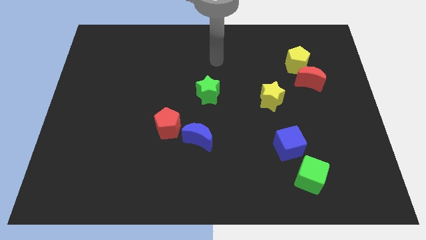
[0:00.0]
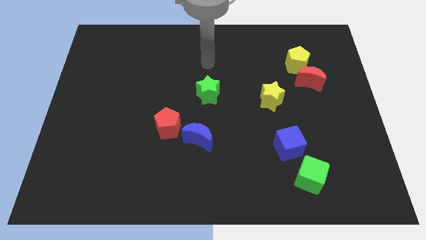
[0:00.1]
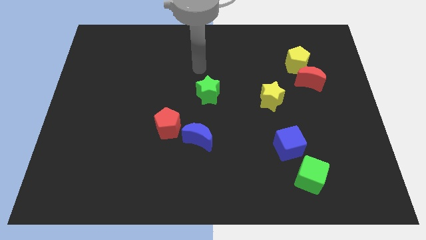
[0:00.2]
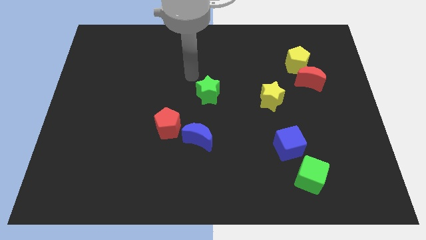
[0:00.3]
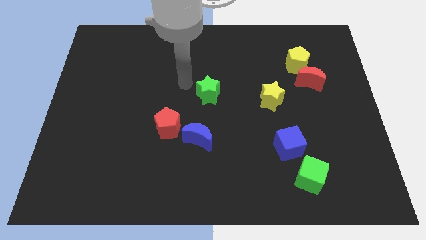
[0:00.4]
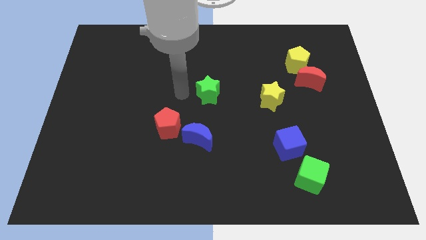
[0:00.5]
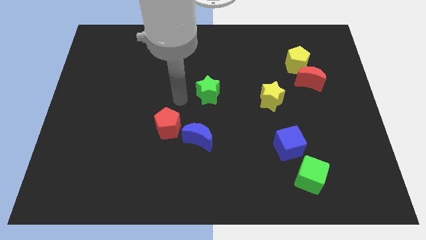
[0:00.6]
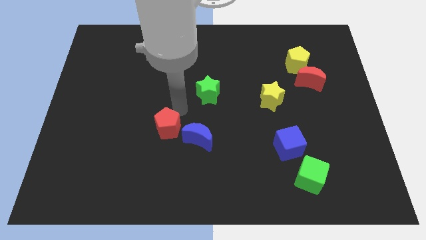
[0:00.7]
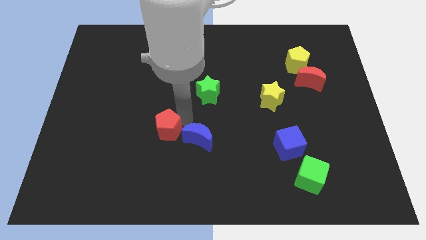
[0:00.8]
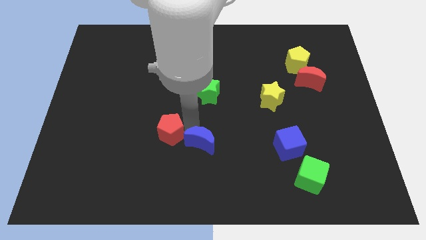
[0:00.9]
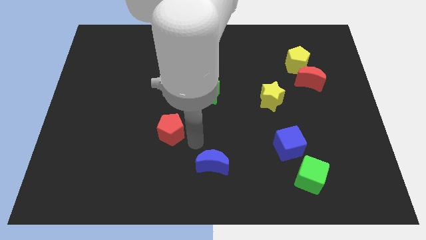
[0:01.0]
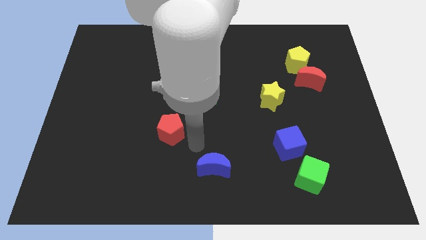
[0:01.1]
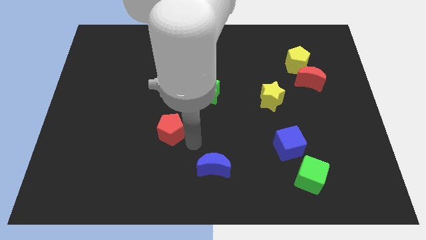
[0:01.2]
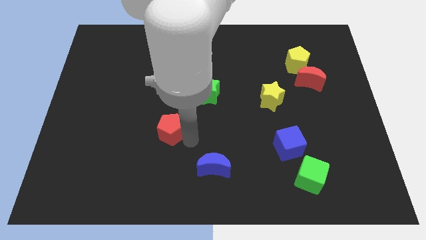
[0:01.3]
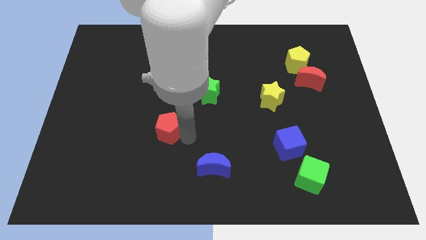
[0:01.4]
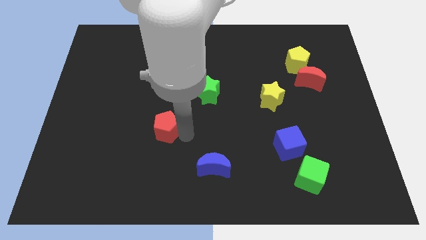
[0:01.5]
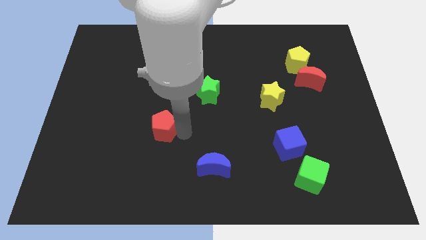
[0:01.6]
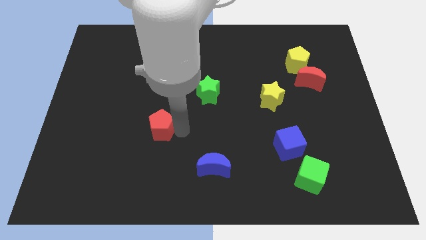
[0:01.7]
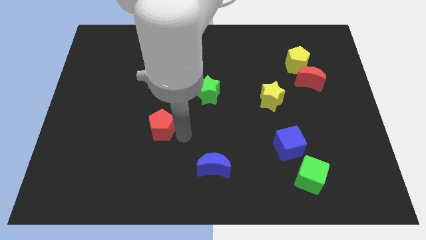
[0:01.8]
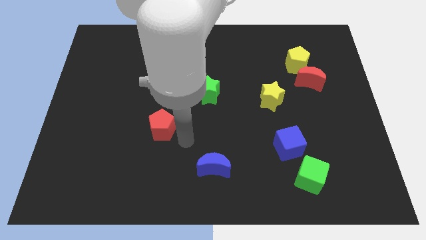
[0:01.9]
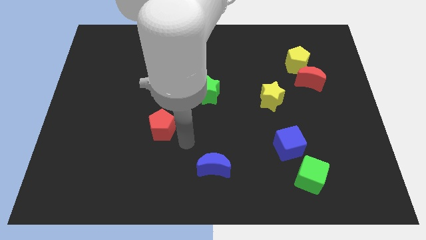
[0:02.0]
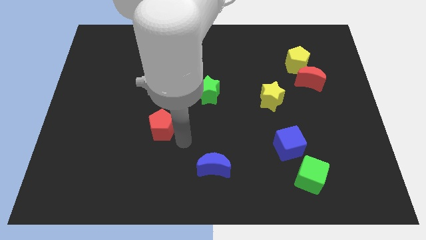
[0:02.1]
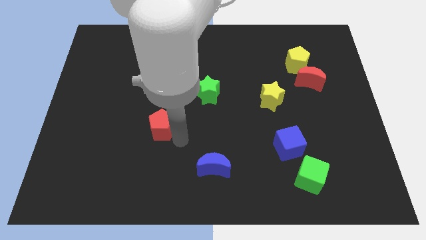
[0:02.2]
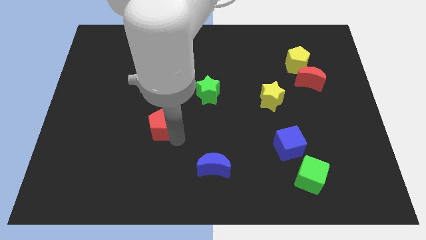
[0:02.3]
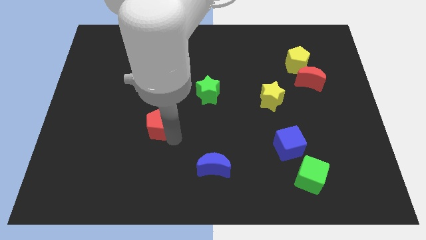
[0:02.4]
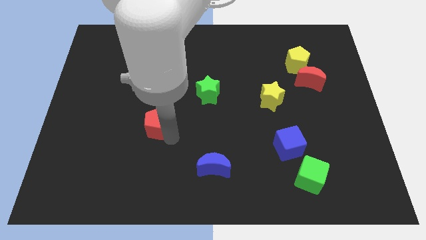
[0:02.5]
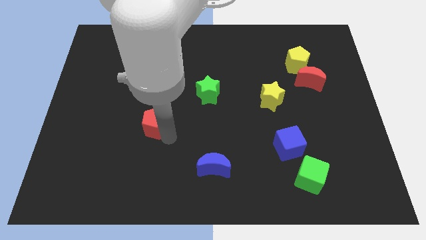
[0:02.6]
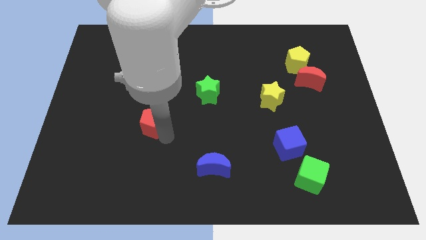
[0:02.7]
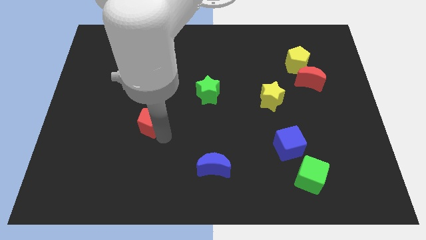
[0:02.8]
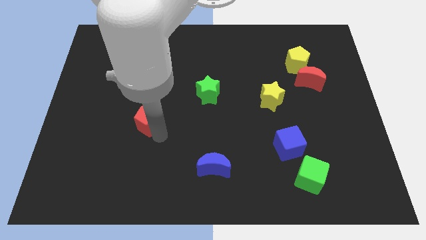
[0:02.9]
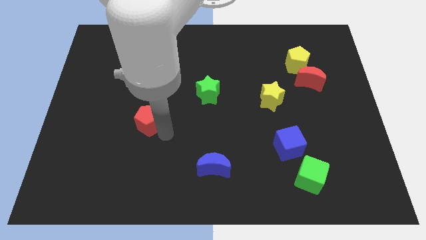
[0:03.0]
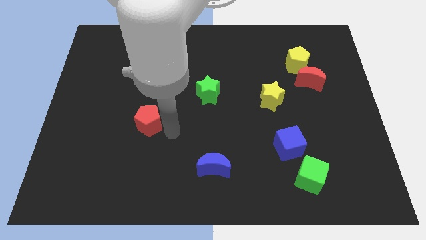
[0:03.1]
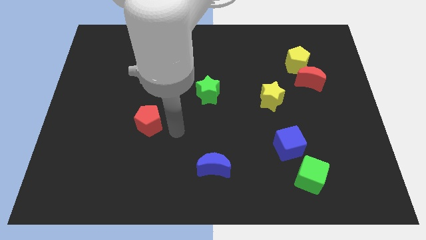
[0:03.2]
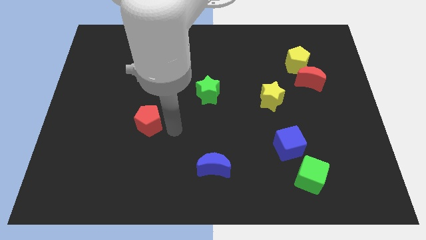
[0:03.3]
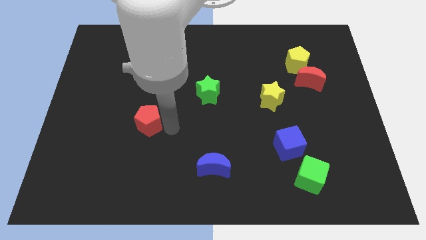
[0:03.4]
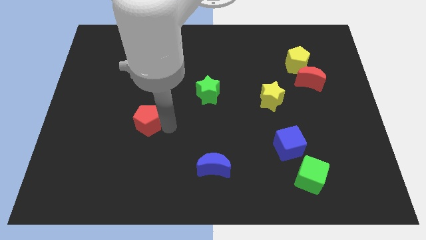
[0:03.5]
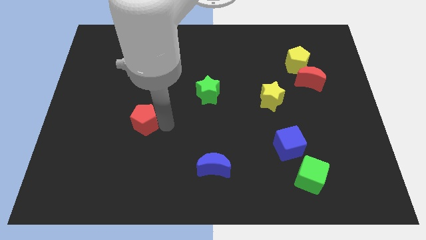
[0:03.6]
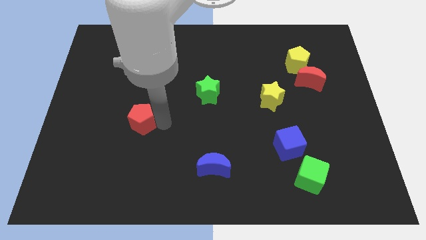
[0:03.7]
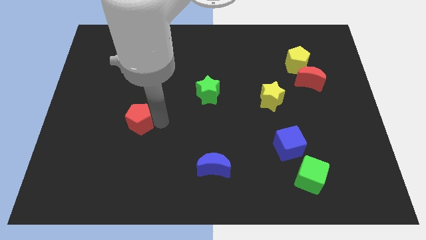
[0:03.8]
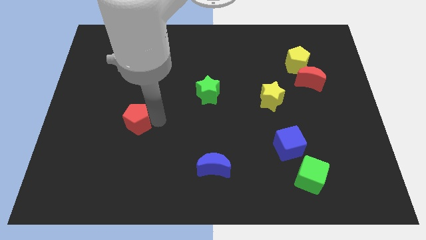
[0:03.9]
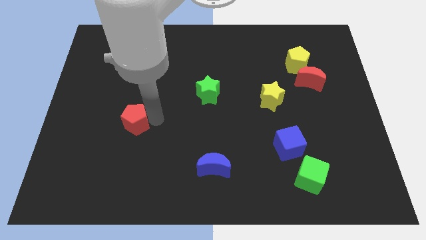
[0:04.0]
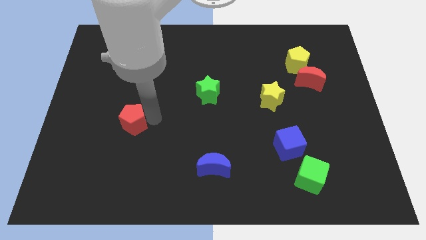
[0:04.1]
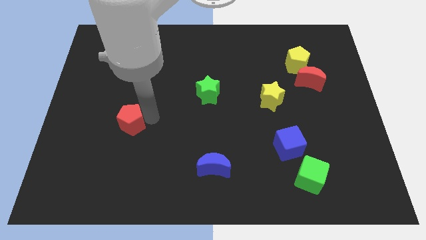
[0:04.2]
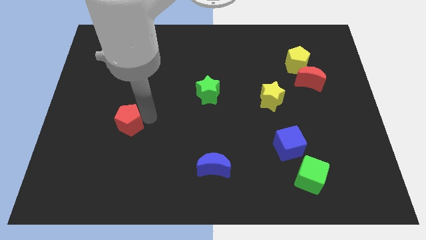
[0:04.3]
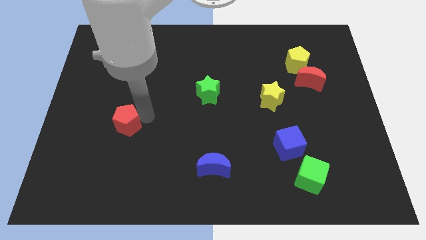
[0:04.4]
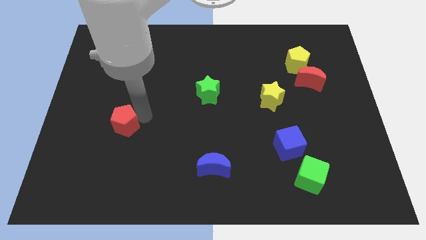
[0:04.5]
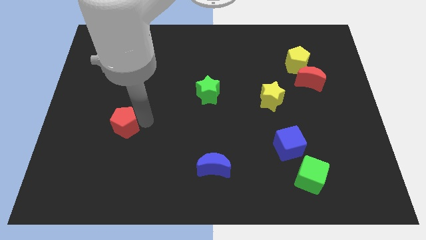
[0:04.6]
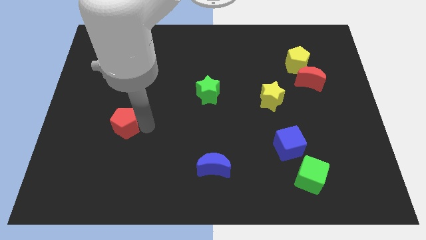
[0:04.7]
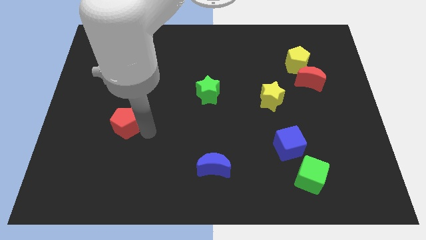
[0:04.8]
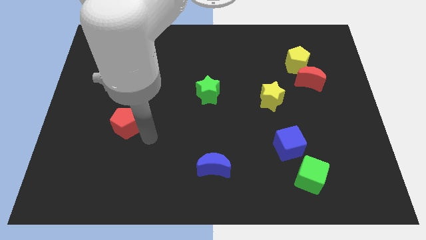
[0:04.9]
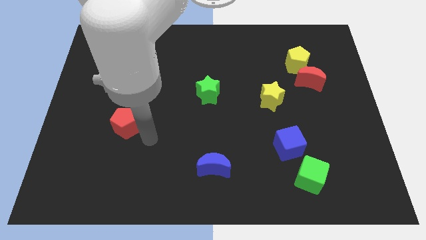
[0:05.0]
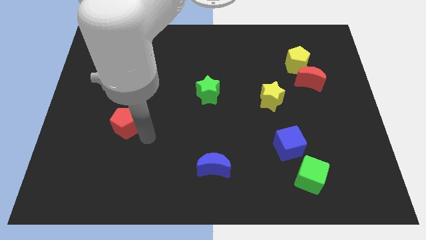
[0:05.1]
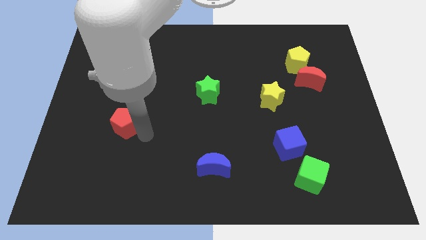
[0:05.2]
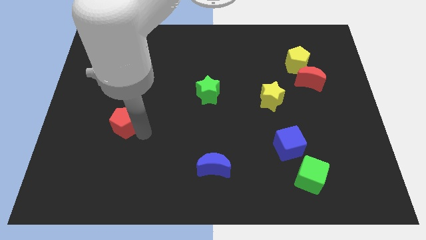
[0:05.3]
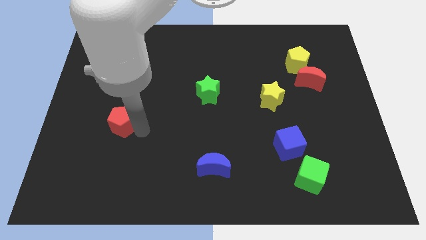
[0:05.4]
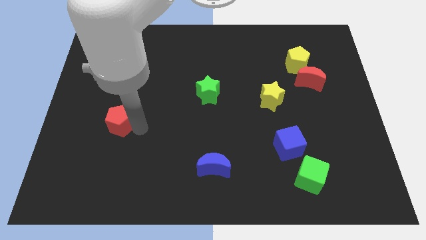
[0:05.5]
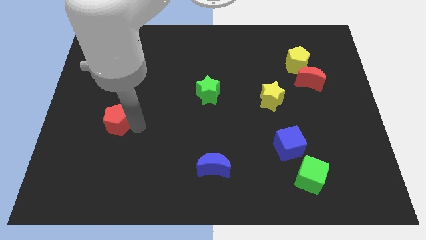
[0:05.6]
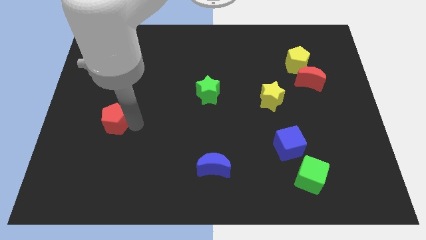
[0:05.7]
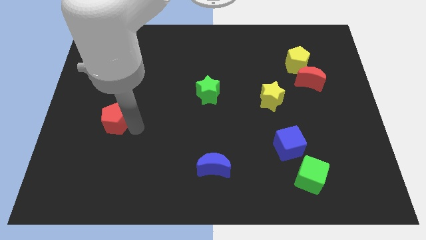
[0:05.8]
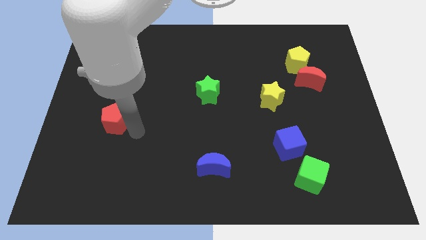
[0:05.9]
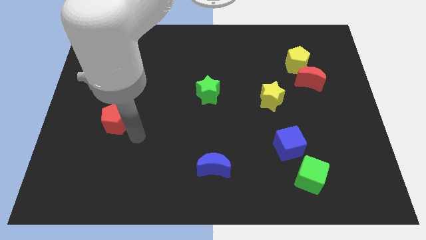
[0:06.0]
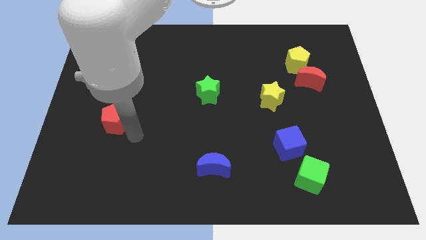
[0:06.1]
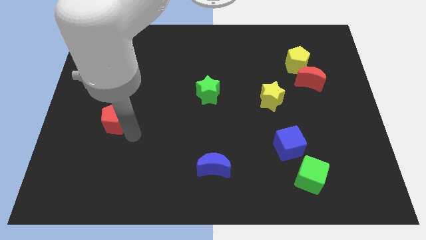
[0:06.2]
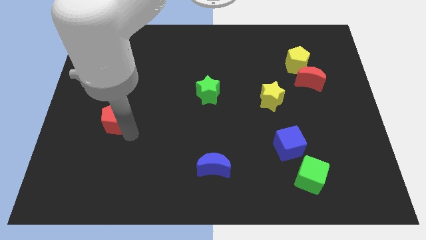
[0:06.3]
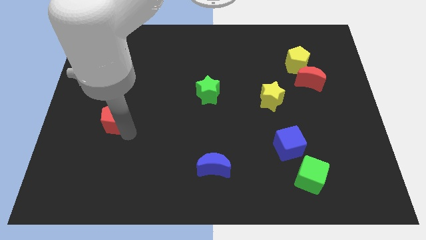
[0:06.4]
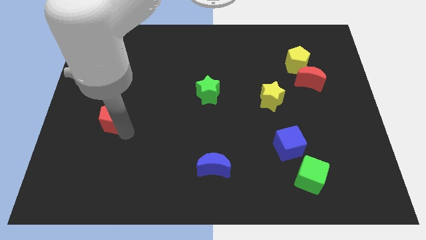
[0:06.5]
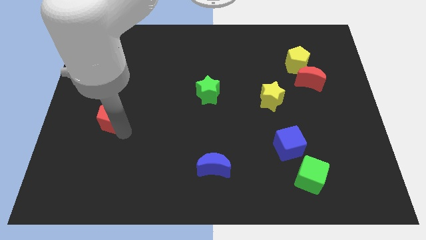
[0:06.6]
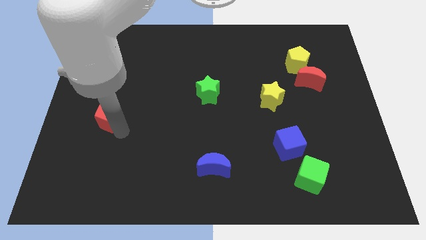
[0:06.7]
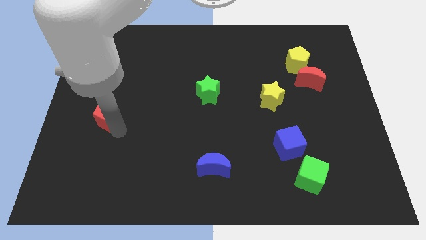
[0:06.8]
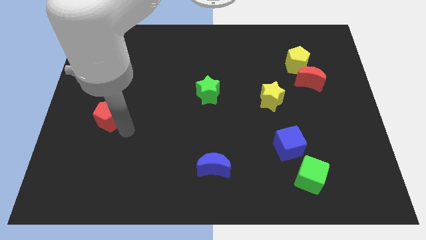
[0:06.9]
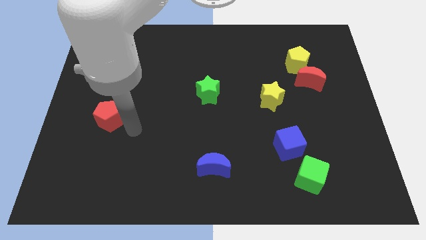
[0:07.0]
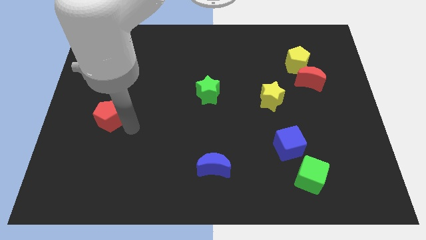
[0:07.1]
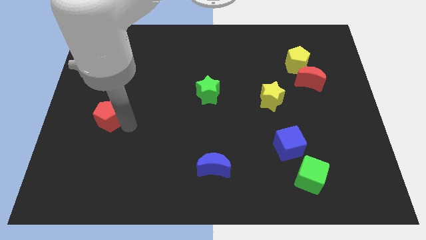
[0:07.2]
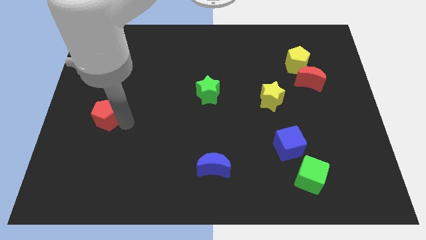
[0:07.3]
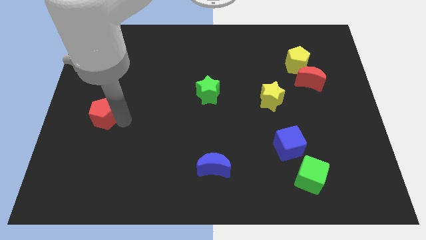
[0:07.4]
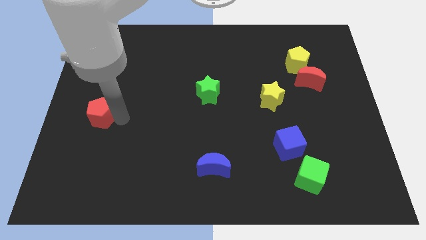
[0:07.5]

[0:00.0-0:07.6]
move the red pentagon to the left side
